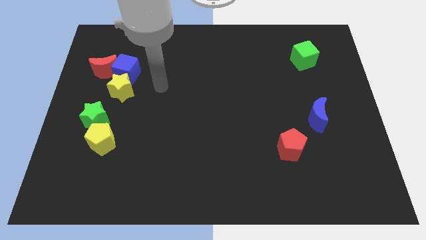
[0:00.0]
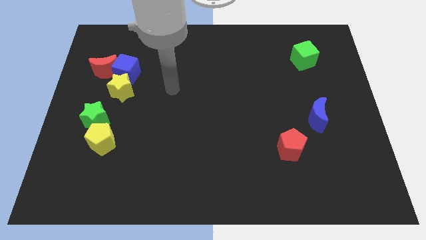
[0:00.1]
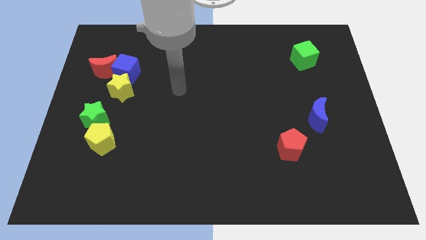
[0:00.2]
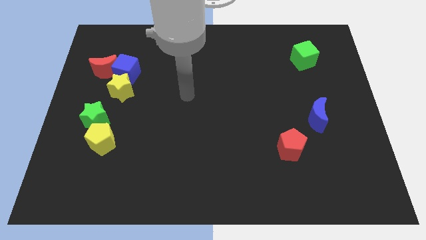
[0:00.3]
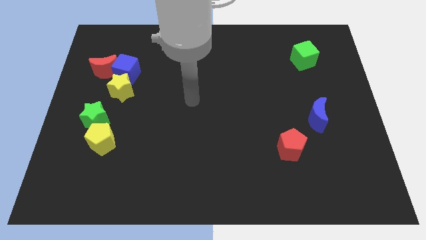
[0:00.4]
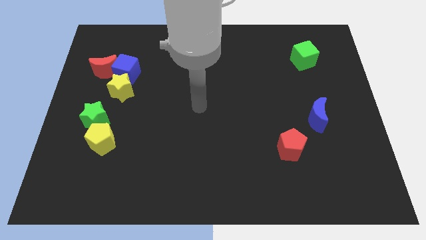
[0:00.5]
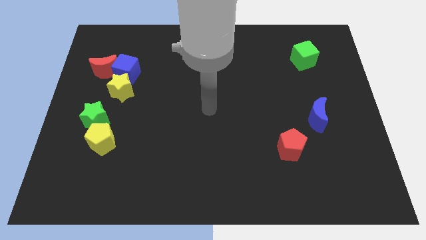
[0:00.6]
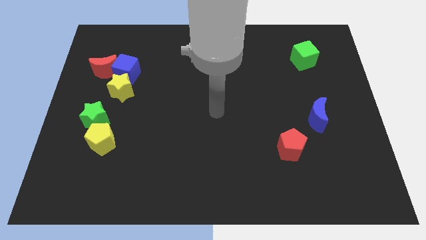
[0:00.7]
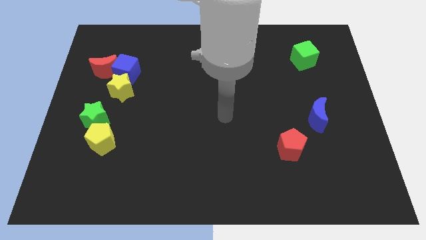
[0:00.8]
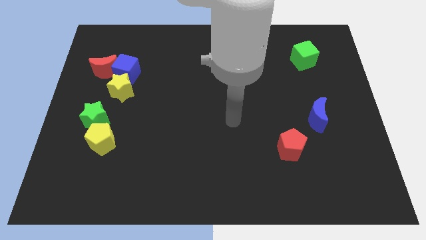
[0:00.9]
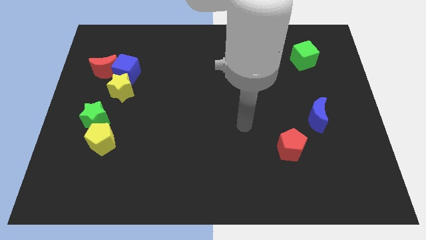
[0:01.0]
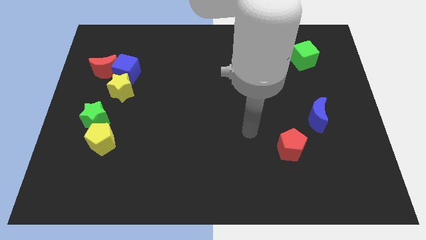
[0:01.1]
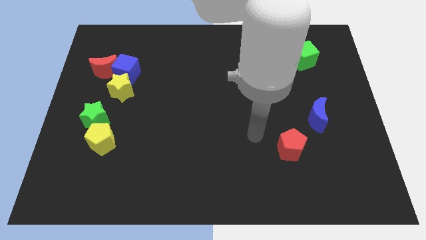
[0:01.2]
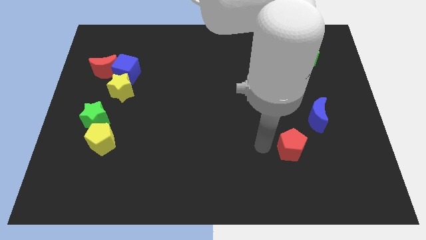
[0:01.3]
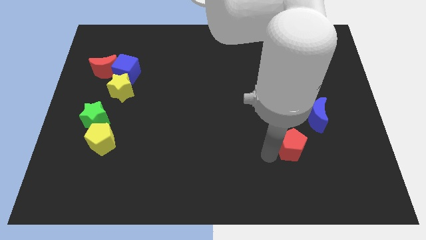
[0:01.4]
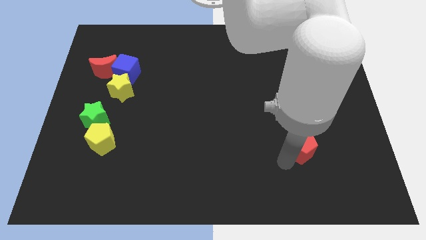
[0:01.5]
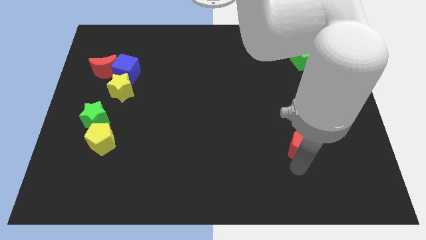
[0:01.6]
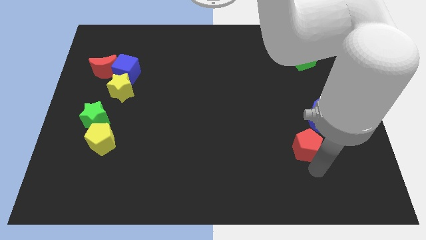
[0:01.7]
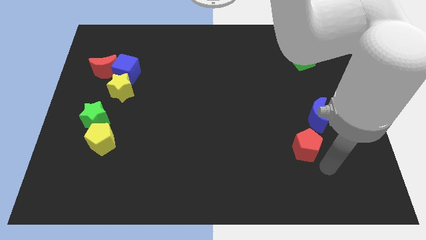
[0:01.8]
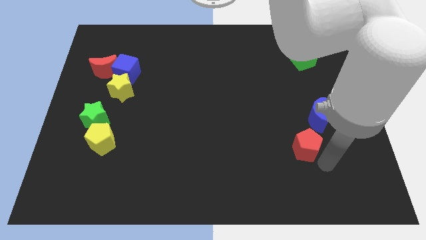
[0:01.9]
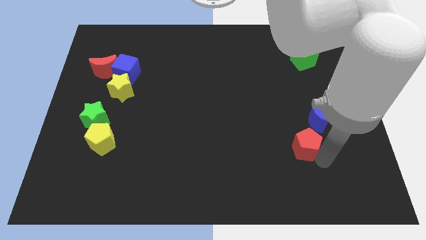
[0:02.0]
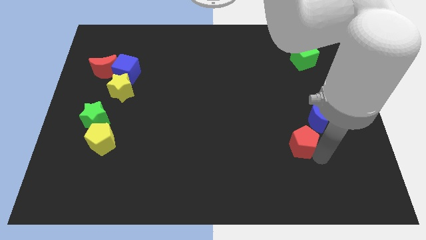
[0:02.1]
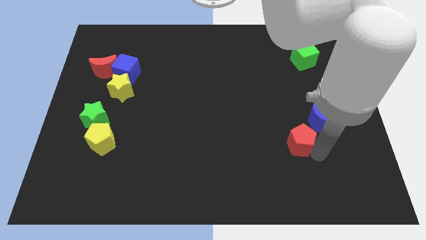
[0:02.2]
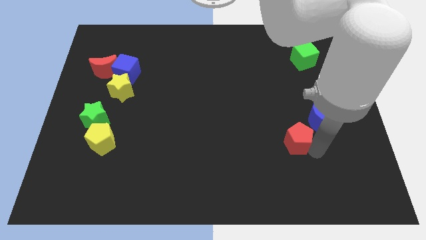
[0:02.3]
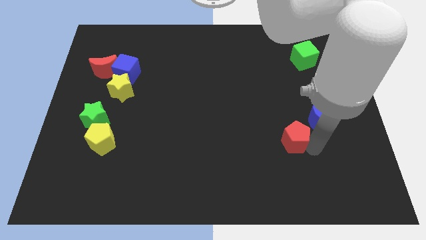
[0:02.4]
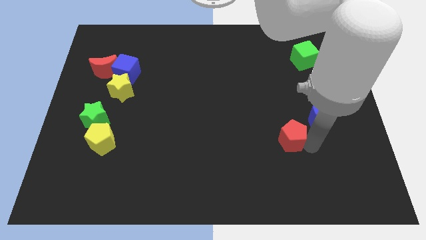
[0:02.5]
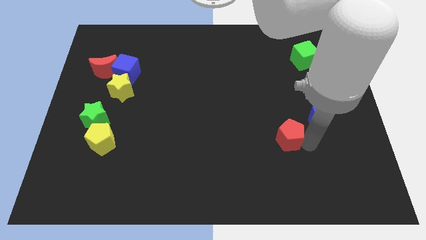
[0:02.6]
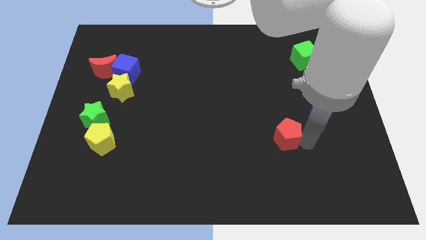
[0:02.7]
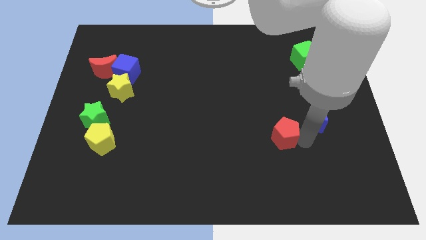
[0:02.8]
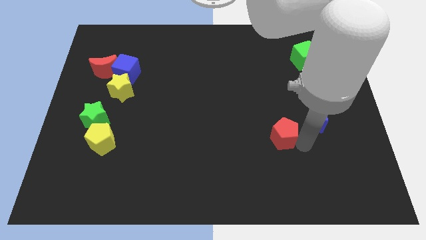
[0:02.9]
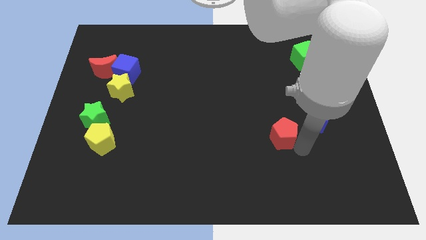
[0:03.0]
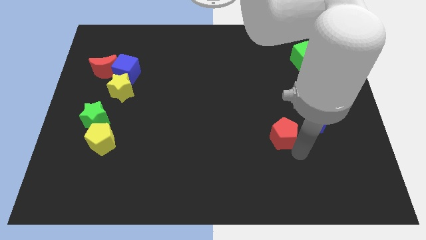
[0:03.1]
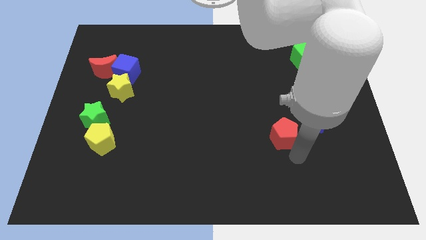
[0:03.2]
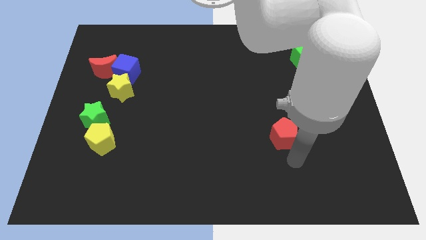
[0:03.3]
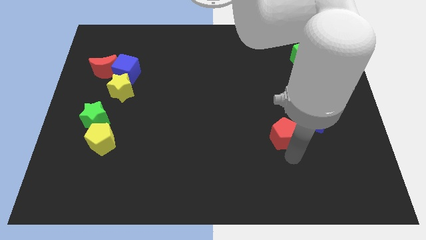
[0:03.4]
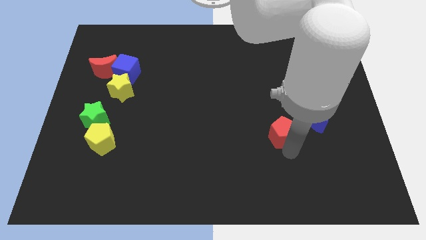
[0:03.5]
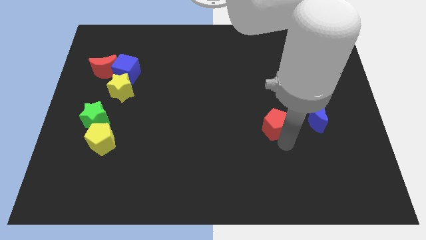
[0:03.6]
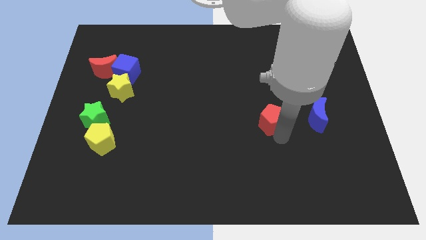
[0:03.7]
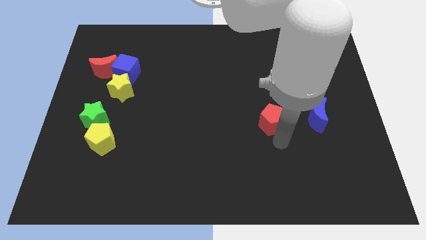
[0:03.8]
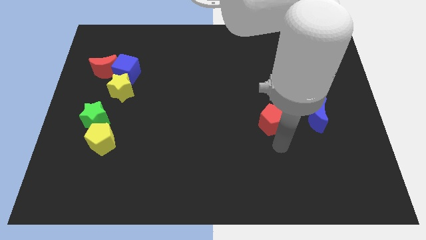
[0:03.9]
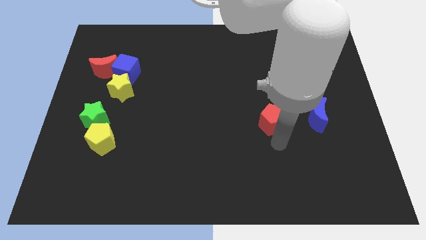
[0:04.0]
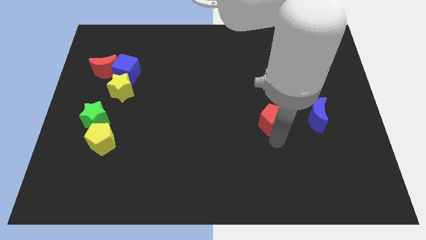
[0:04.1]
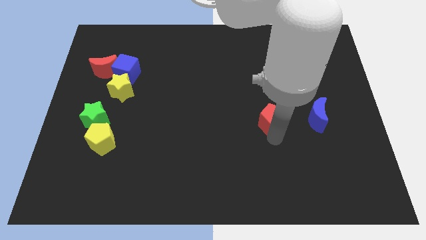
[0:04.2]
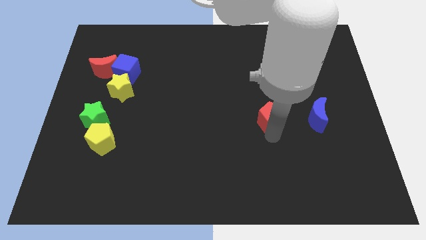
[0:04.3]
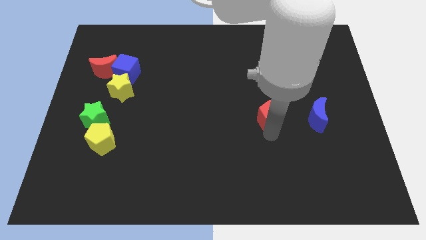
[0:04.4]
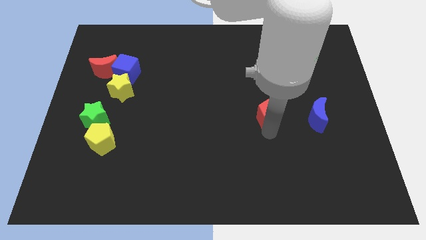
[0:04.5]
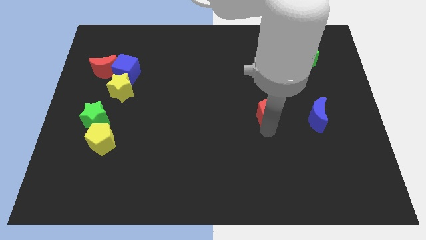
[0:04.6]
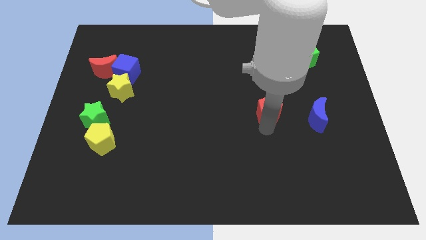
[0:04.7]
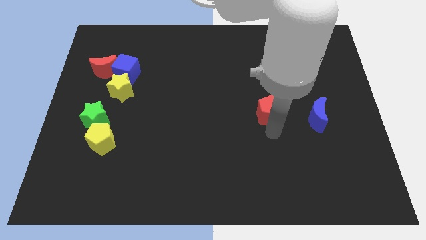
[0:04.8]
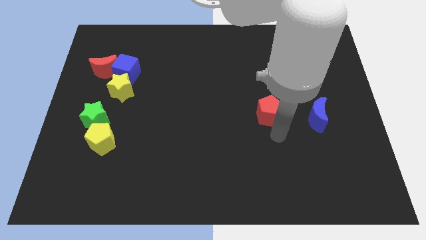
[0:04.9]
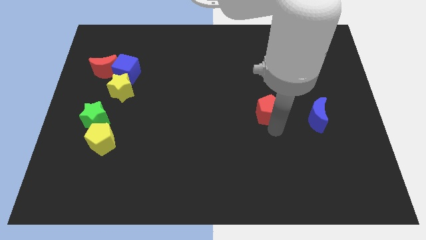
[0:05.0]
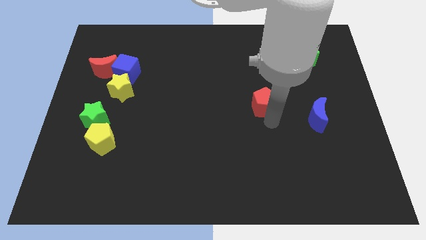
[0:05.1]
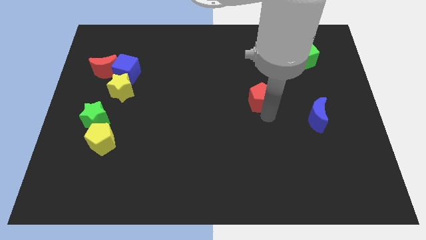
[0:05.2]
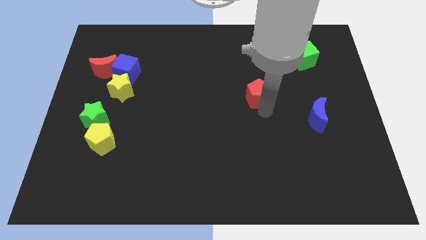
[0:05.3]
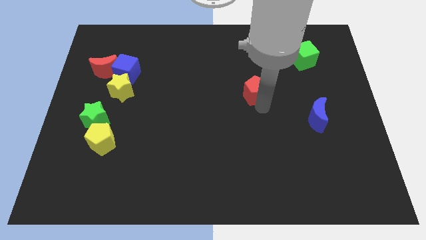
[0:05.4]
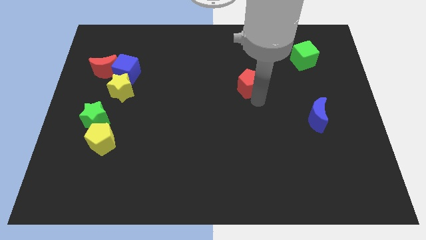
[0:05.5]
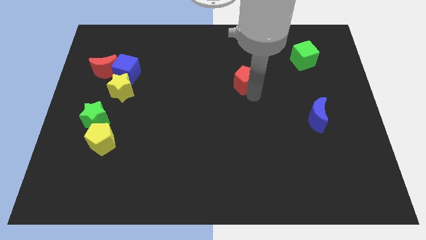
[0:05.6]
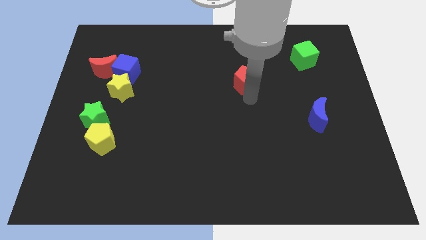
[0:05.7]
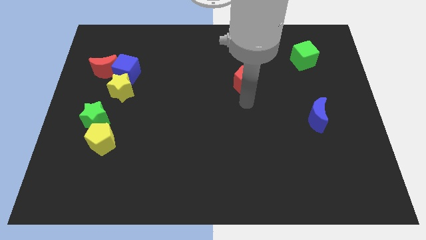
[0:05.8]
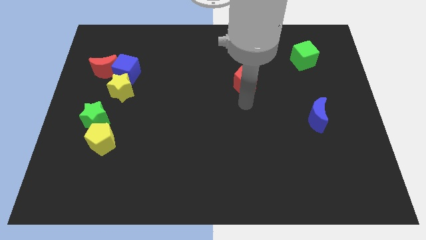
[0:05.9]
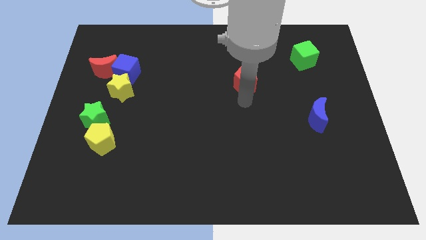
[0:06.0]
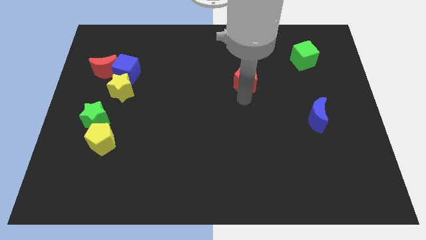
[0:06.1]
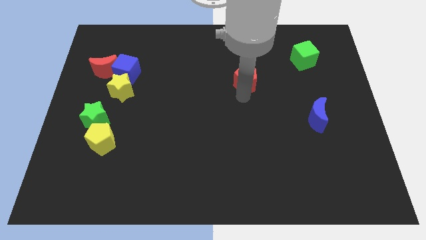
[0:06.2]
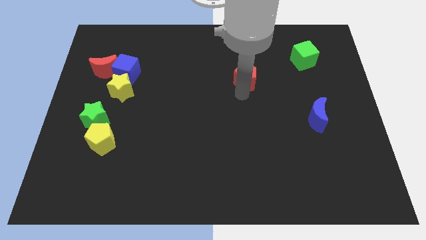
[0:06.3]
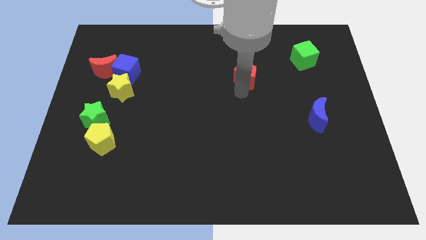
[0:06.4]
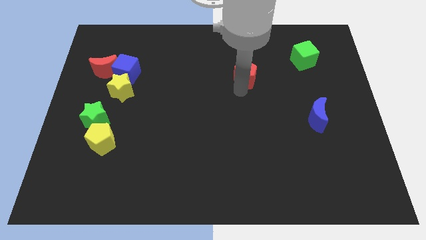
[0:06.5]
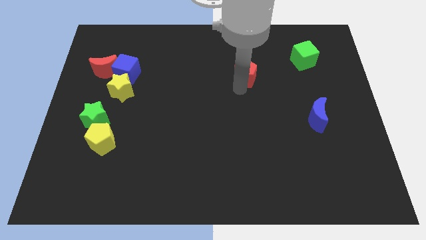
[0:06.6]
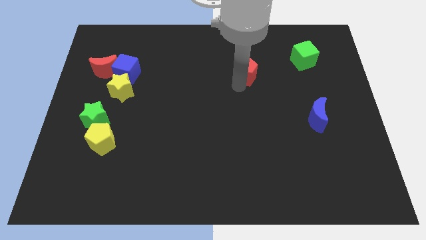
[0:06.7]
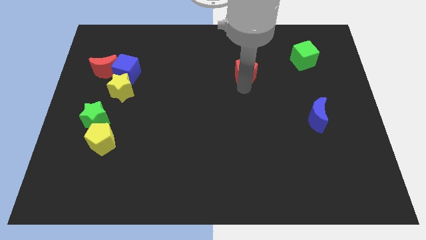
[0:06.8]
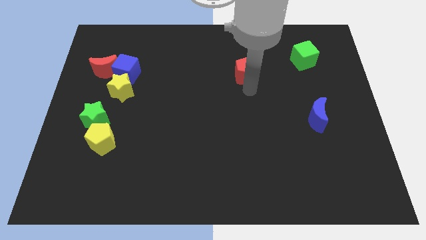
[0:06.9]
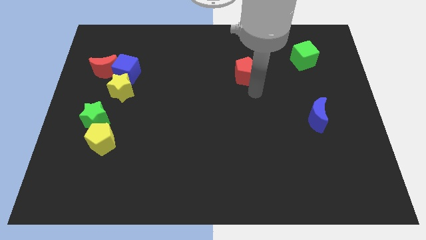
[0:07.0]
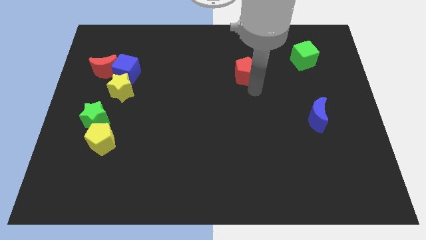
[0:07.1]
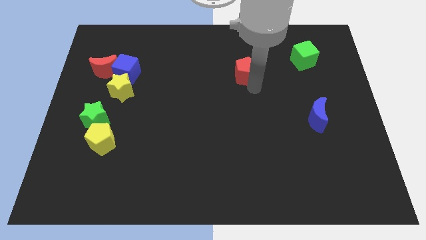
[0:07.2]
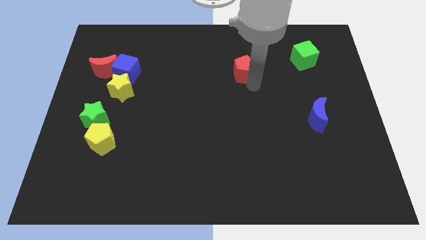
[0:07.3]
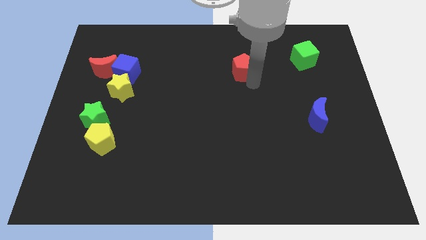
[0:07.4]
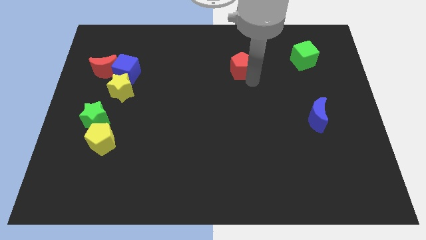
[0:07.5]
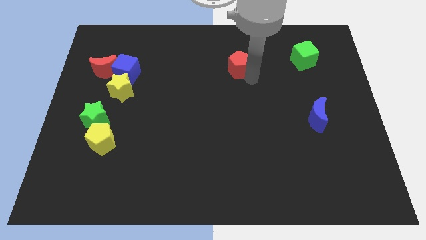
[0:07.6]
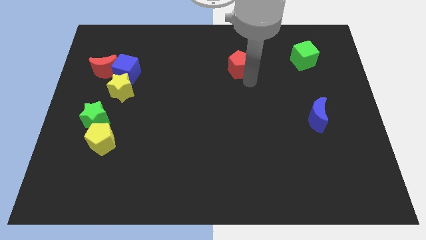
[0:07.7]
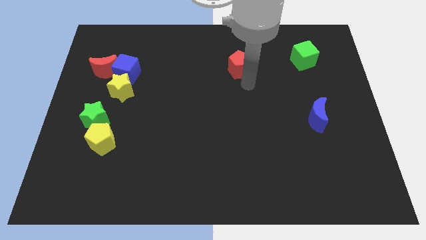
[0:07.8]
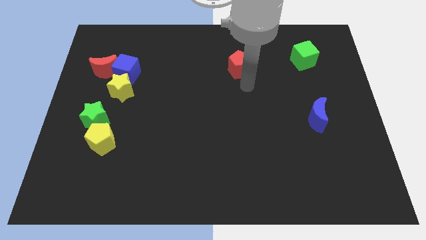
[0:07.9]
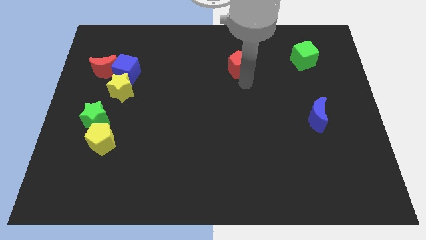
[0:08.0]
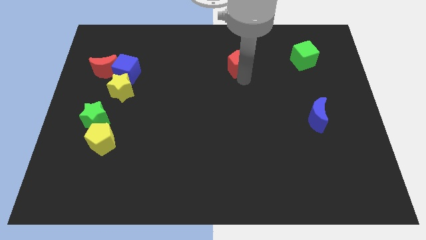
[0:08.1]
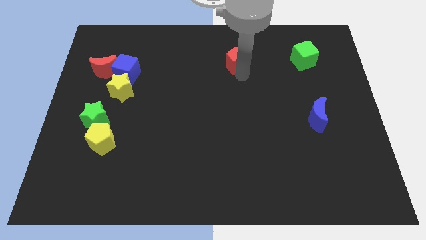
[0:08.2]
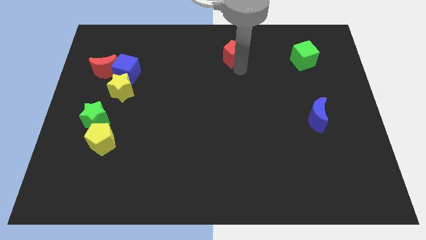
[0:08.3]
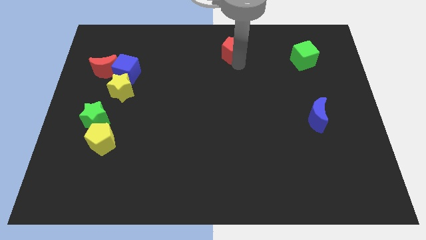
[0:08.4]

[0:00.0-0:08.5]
put the red pentagon to the towards your base

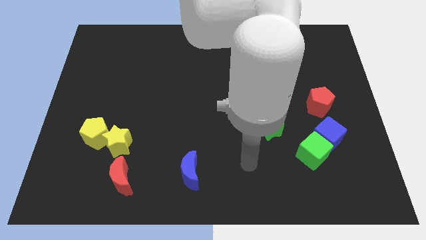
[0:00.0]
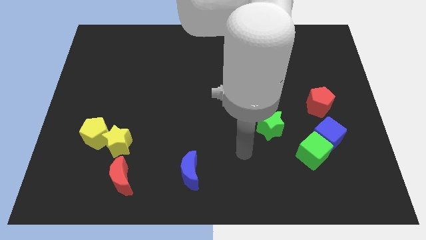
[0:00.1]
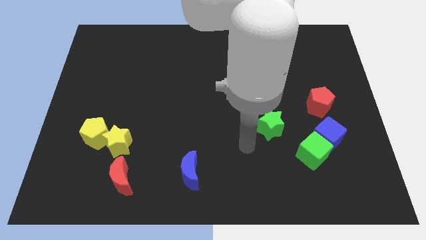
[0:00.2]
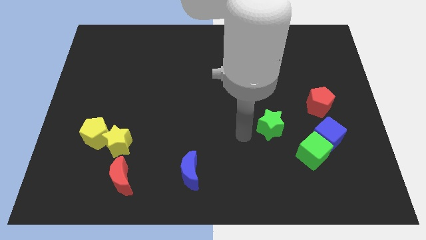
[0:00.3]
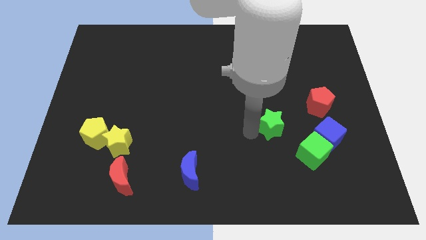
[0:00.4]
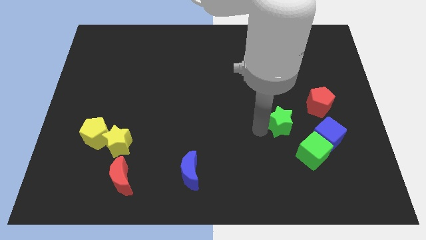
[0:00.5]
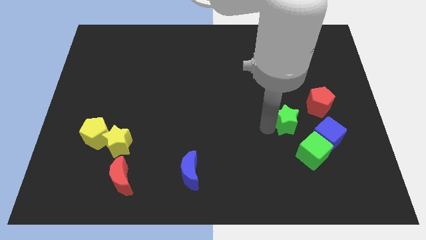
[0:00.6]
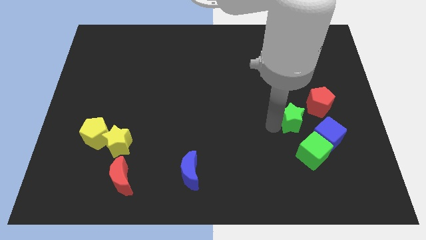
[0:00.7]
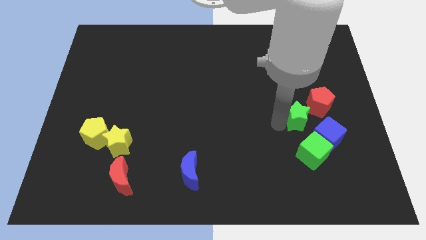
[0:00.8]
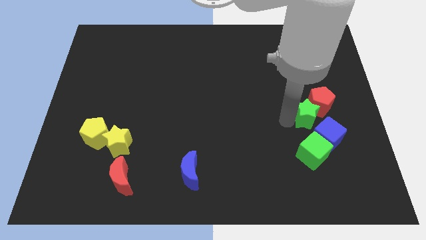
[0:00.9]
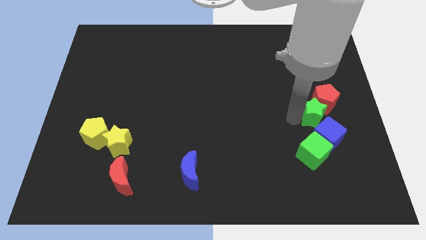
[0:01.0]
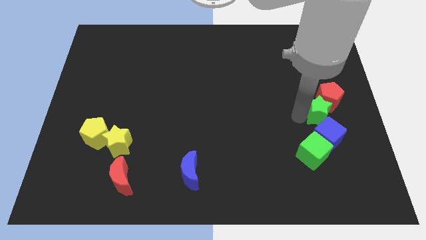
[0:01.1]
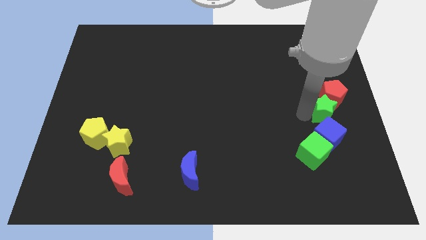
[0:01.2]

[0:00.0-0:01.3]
push the green star to the right side of the board
